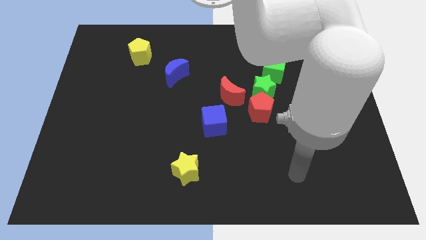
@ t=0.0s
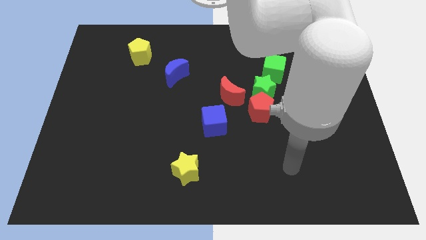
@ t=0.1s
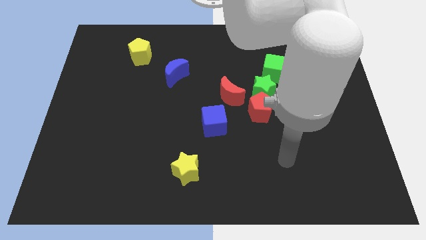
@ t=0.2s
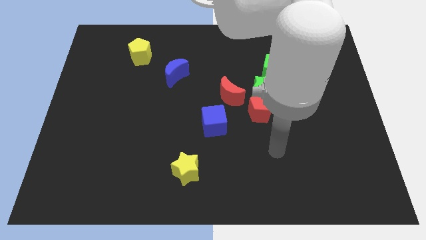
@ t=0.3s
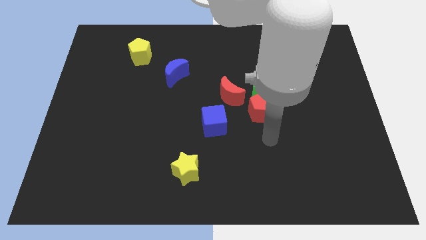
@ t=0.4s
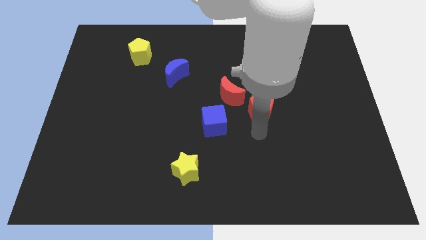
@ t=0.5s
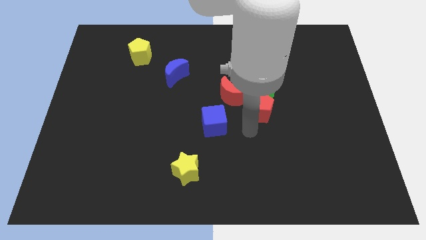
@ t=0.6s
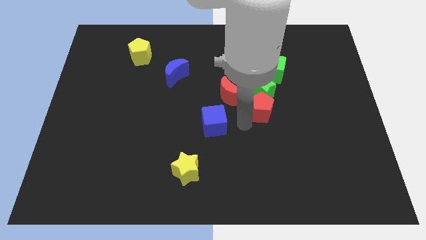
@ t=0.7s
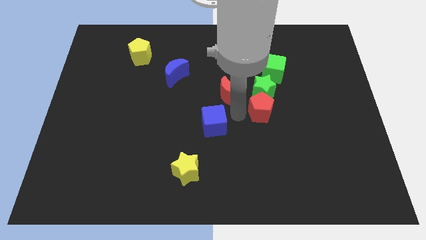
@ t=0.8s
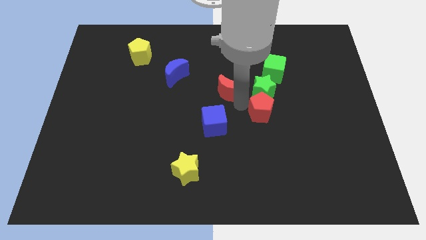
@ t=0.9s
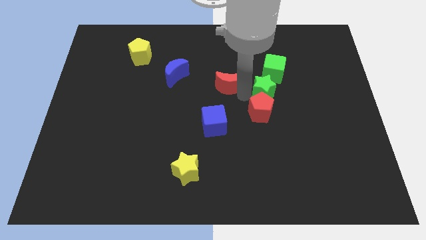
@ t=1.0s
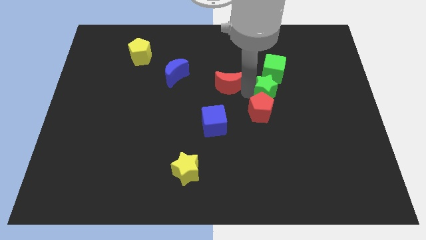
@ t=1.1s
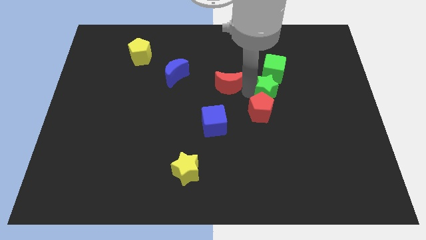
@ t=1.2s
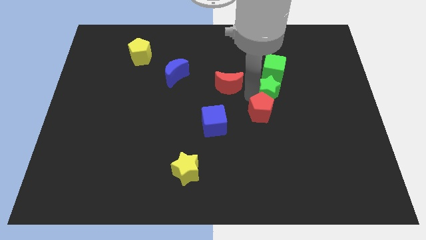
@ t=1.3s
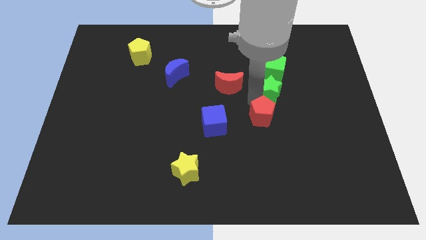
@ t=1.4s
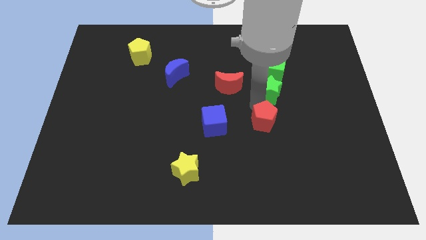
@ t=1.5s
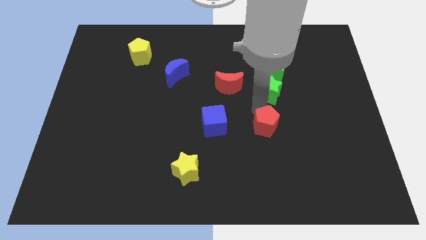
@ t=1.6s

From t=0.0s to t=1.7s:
move the red pentagon away from the green star and red moon

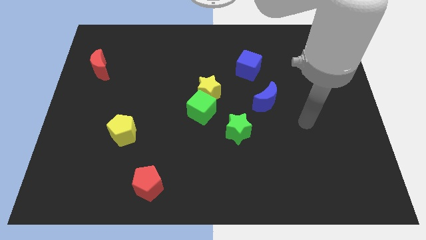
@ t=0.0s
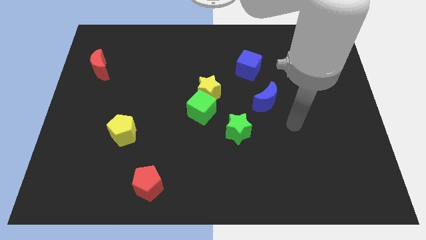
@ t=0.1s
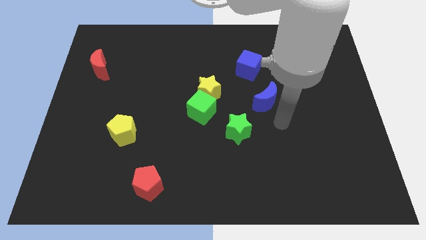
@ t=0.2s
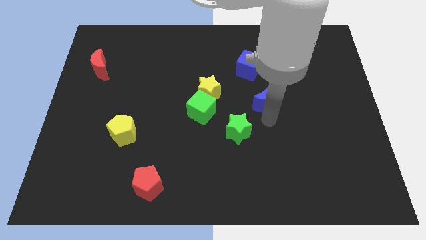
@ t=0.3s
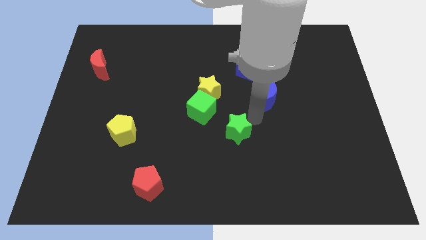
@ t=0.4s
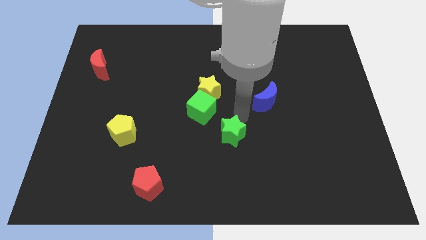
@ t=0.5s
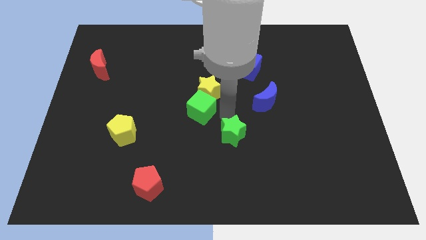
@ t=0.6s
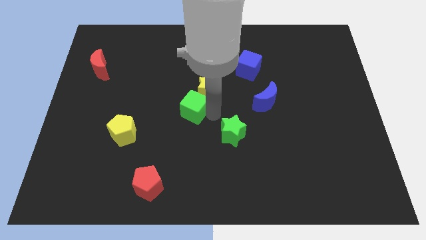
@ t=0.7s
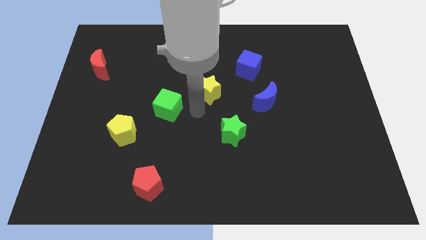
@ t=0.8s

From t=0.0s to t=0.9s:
move the yellow star away from the green cube

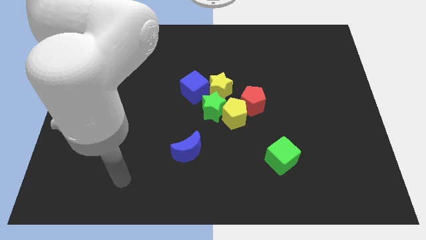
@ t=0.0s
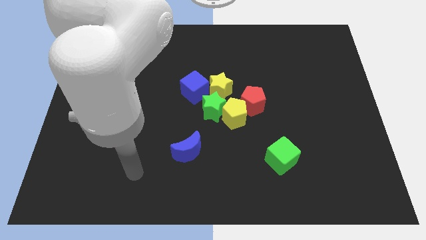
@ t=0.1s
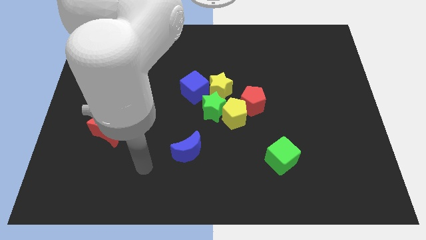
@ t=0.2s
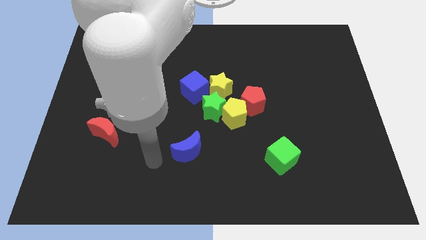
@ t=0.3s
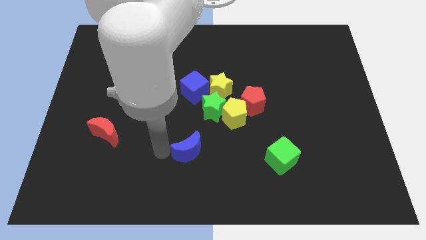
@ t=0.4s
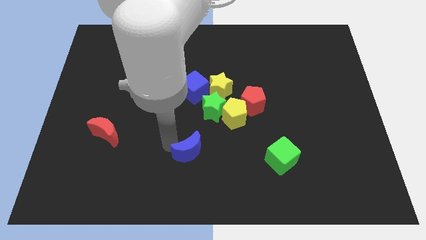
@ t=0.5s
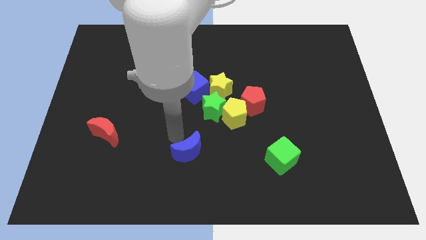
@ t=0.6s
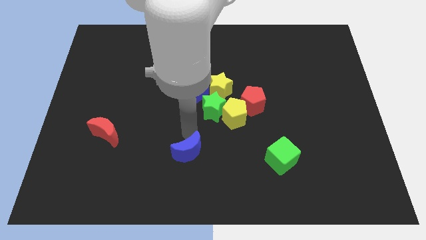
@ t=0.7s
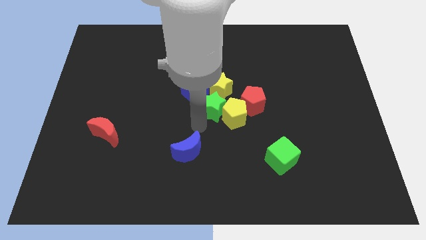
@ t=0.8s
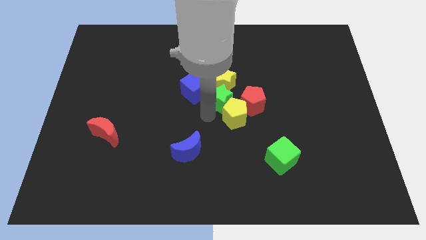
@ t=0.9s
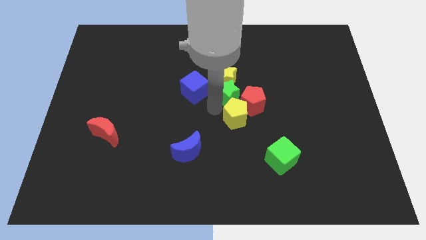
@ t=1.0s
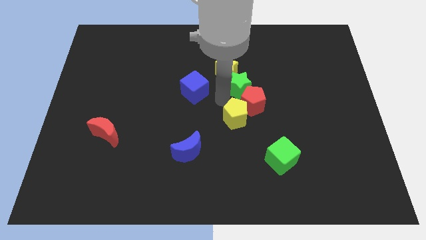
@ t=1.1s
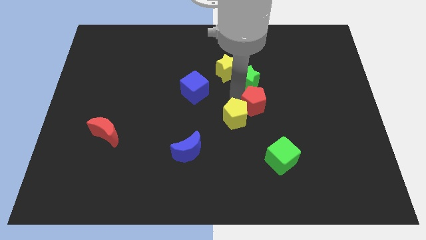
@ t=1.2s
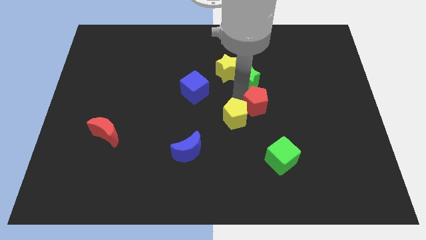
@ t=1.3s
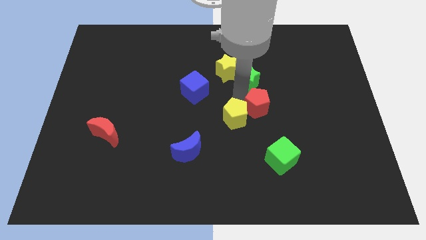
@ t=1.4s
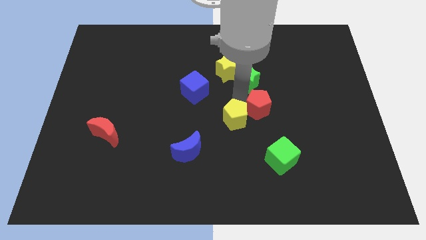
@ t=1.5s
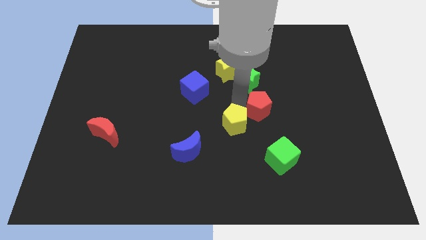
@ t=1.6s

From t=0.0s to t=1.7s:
separate the yellow pentagon from the green star, red pentagon, and yellow star

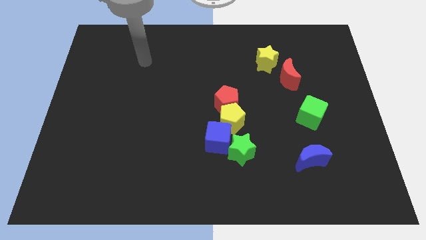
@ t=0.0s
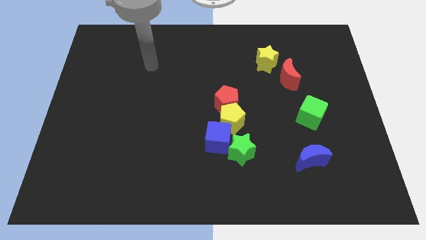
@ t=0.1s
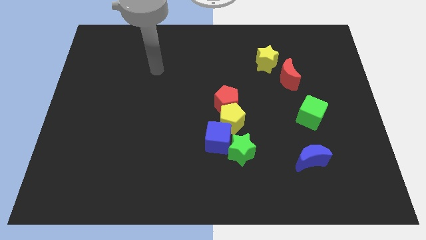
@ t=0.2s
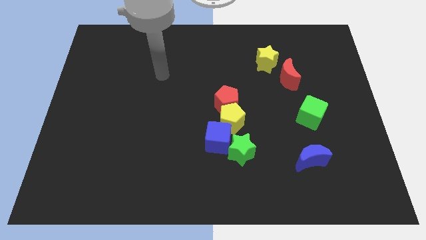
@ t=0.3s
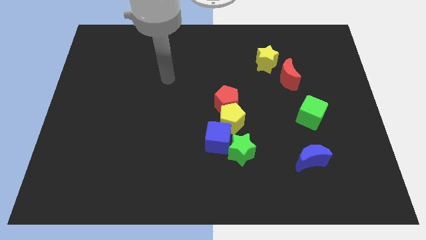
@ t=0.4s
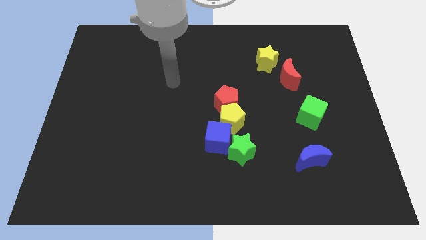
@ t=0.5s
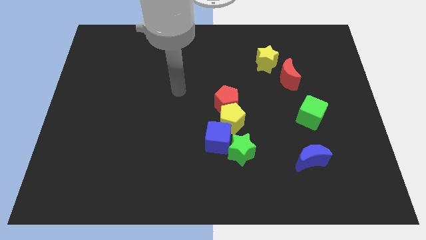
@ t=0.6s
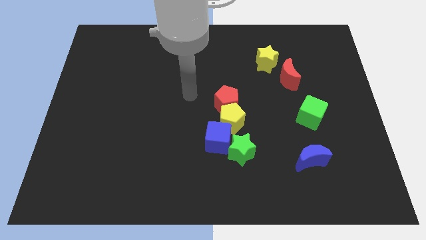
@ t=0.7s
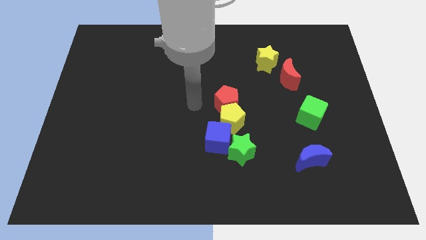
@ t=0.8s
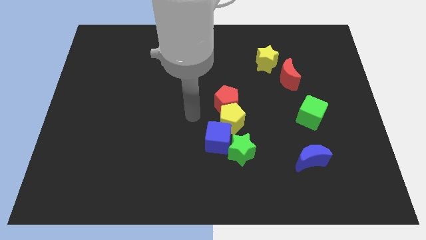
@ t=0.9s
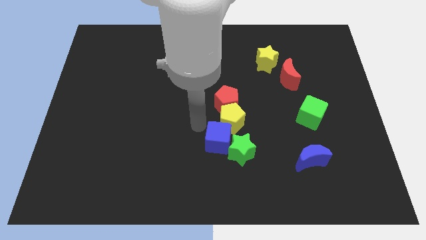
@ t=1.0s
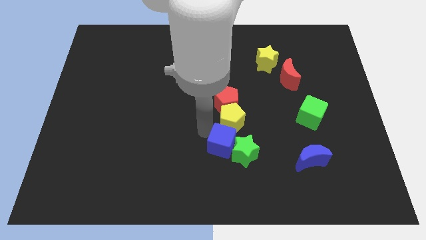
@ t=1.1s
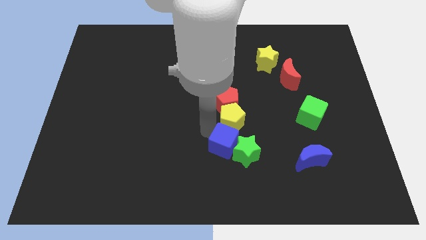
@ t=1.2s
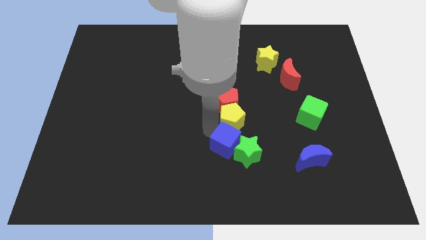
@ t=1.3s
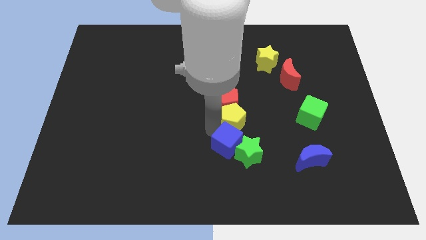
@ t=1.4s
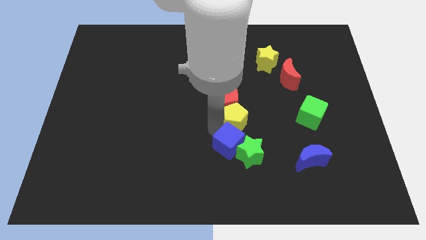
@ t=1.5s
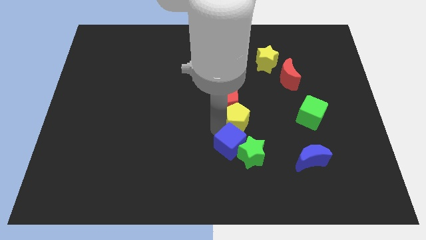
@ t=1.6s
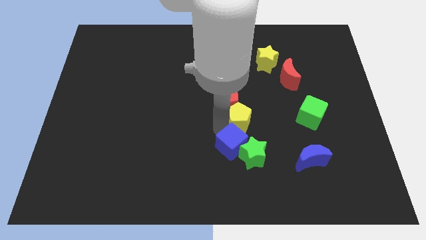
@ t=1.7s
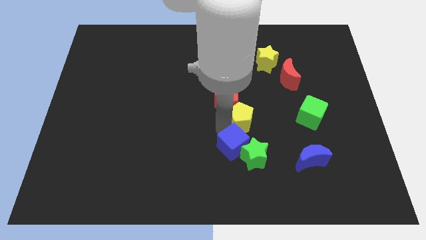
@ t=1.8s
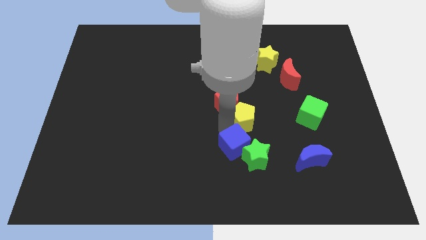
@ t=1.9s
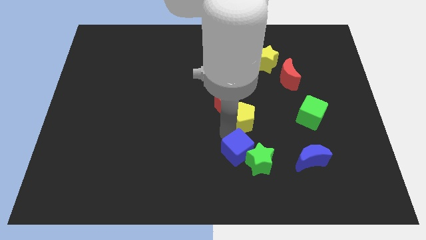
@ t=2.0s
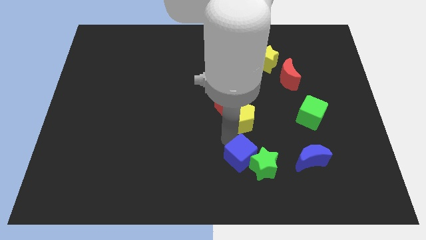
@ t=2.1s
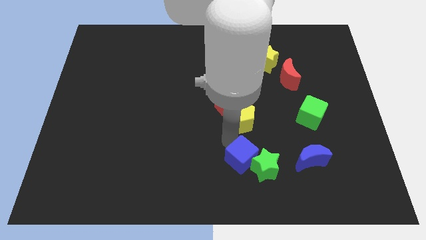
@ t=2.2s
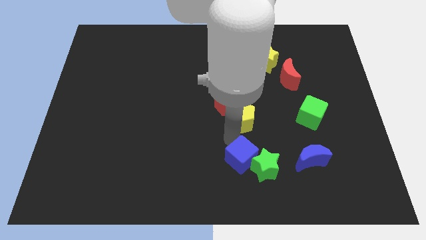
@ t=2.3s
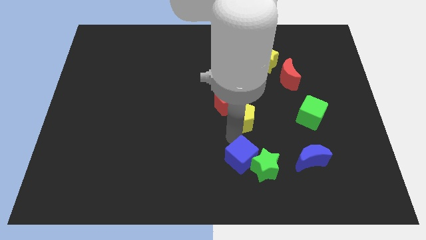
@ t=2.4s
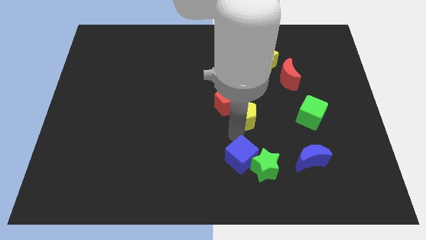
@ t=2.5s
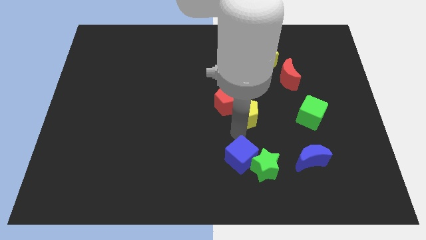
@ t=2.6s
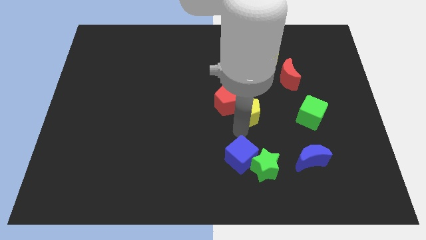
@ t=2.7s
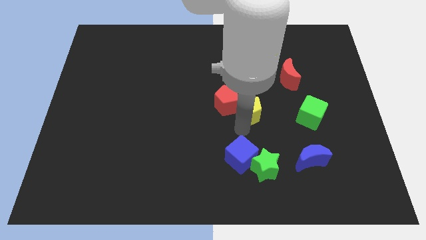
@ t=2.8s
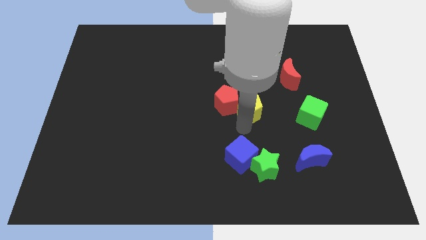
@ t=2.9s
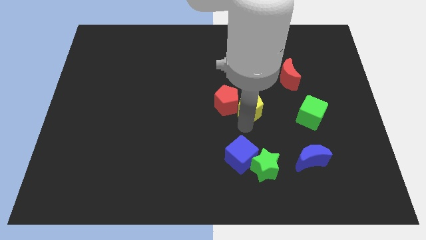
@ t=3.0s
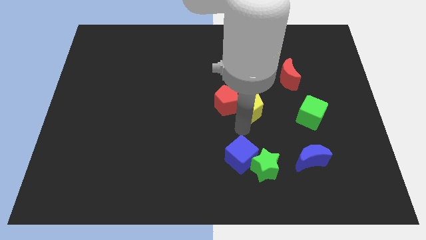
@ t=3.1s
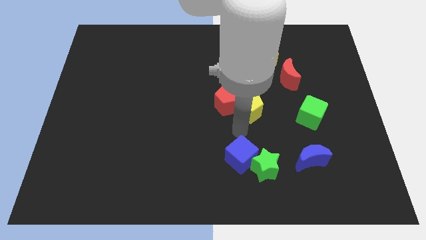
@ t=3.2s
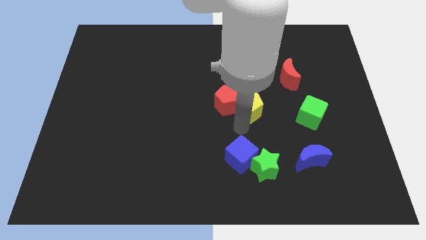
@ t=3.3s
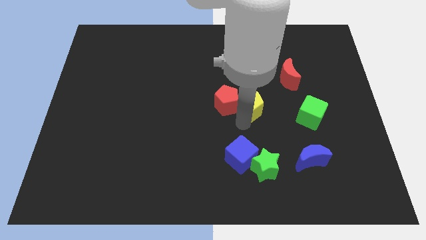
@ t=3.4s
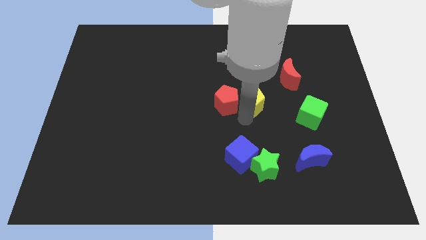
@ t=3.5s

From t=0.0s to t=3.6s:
pull the yellow pentagon apart from the red pentagon, blue cube, and green star

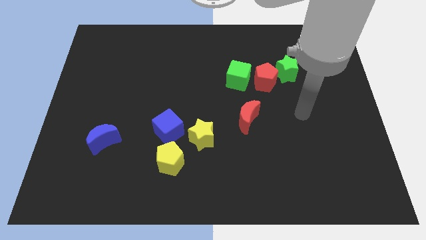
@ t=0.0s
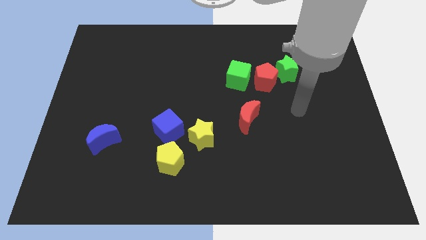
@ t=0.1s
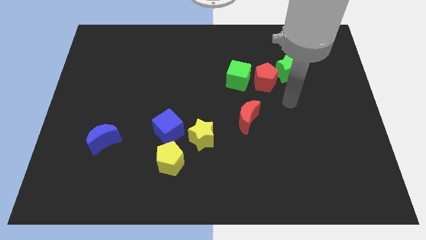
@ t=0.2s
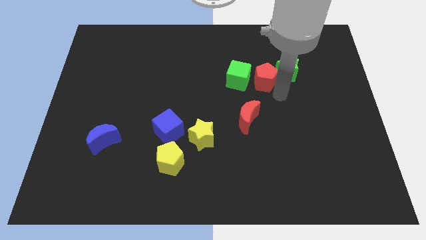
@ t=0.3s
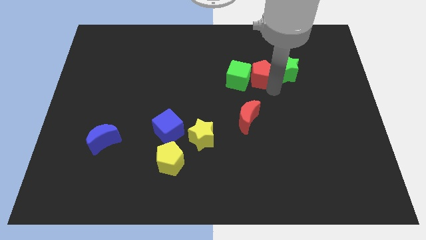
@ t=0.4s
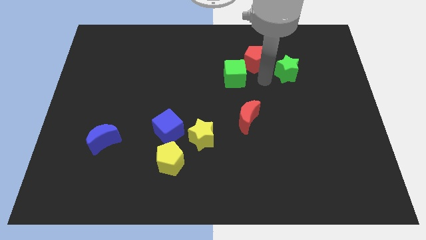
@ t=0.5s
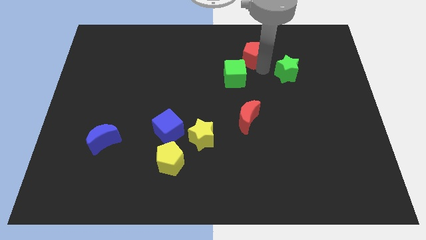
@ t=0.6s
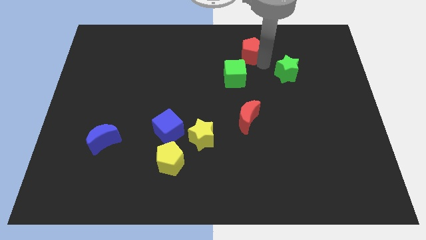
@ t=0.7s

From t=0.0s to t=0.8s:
separate the green star from the red pentagon

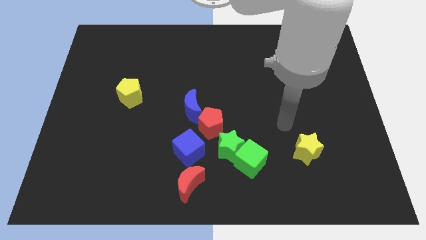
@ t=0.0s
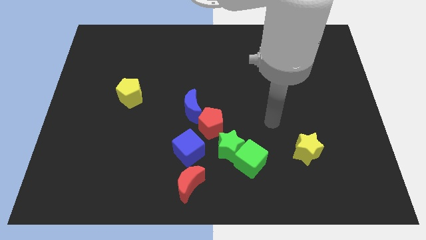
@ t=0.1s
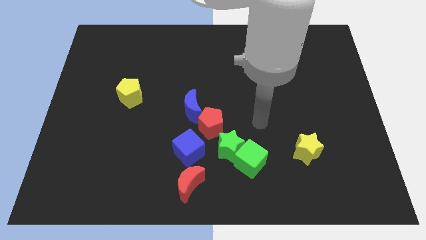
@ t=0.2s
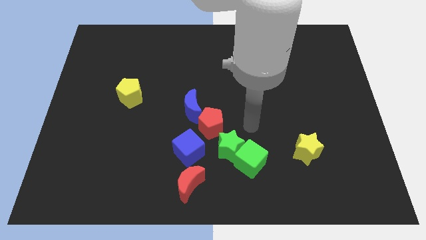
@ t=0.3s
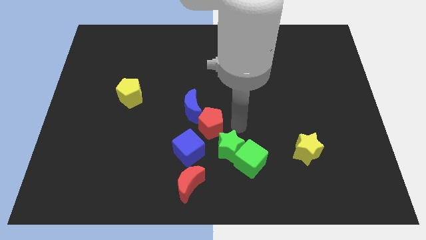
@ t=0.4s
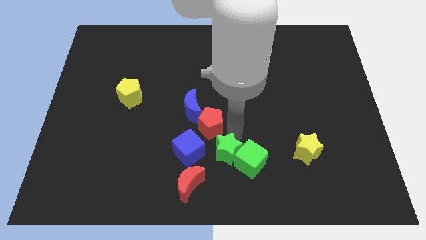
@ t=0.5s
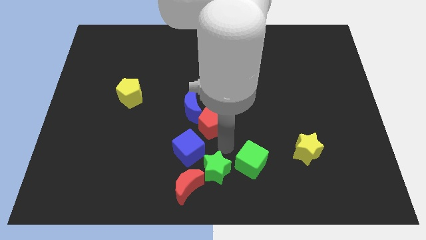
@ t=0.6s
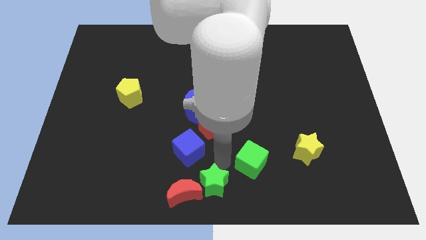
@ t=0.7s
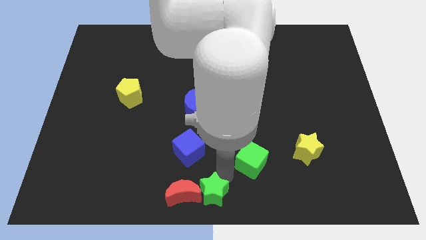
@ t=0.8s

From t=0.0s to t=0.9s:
move the green cube away from the green star
